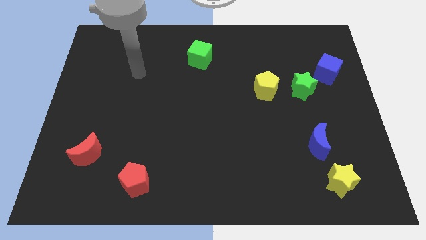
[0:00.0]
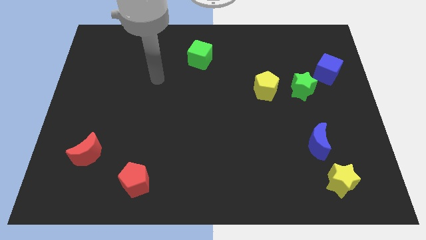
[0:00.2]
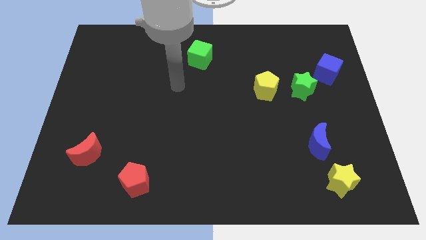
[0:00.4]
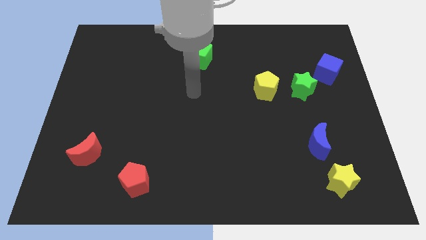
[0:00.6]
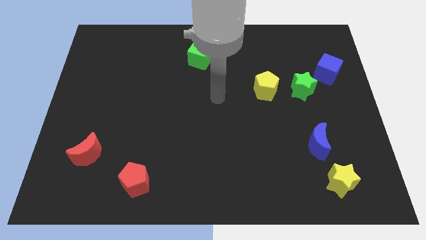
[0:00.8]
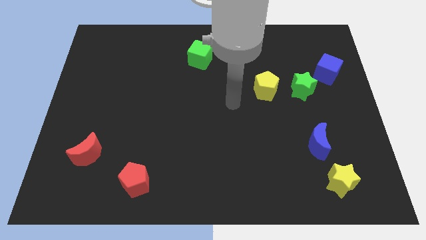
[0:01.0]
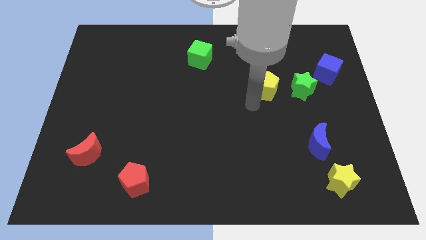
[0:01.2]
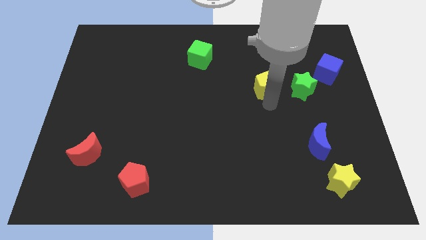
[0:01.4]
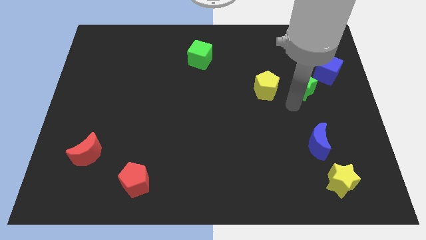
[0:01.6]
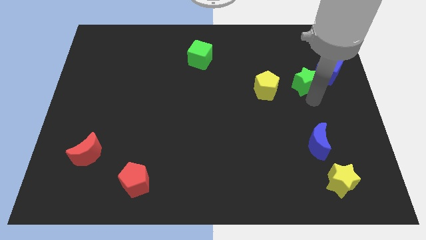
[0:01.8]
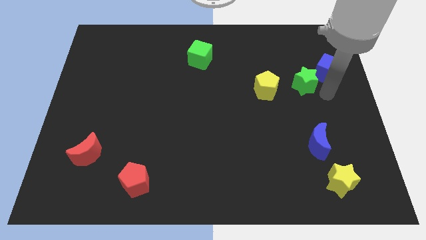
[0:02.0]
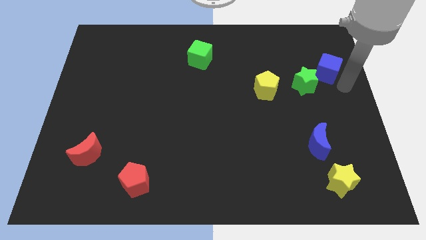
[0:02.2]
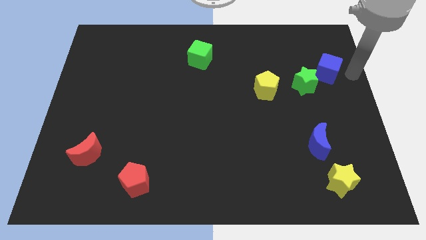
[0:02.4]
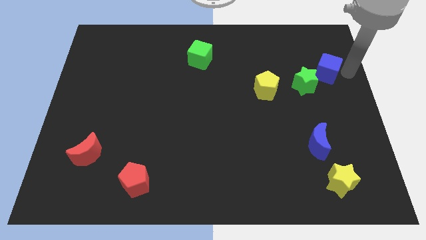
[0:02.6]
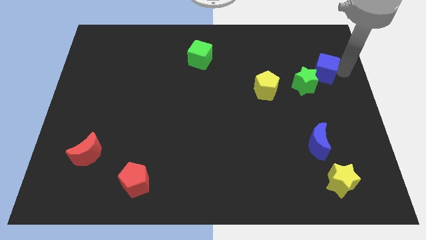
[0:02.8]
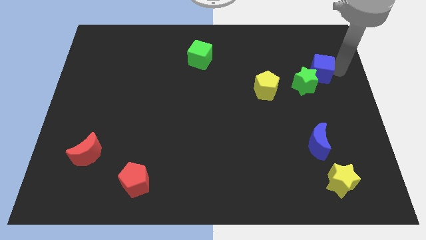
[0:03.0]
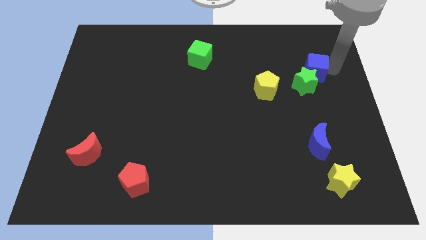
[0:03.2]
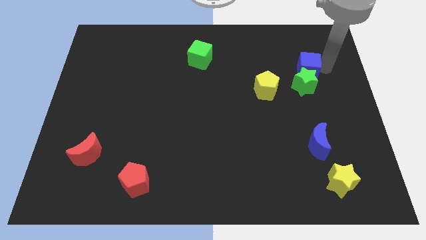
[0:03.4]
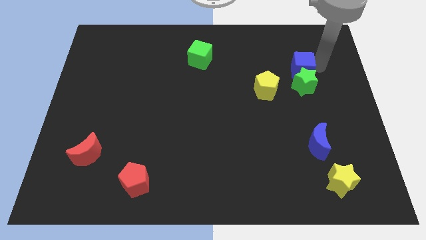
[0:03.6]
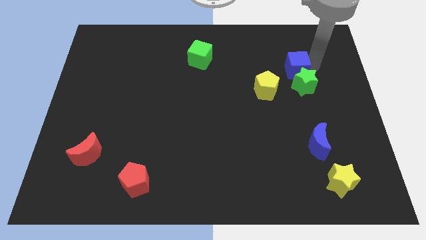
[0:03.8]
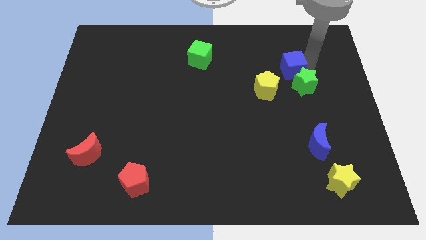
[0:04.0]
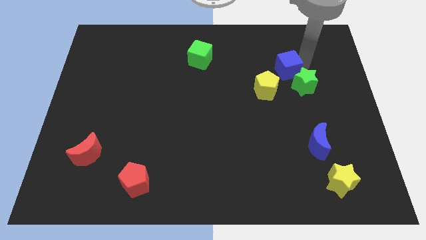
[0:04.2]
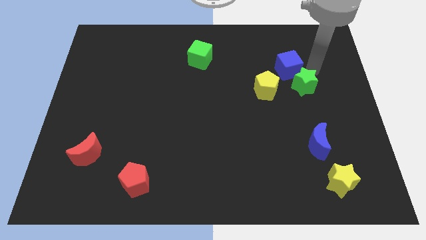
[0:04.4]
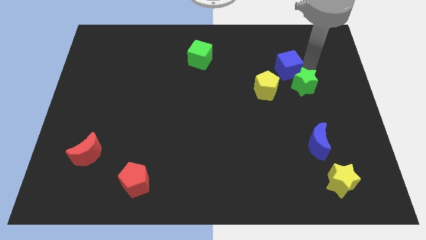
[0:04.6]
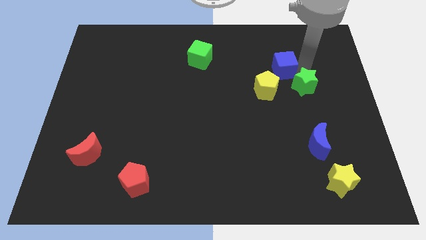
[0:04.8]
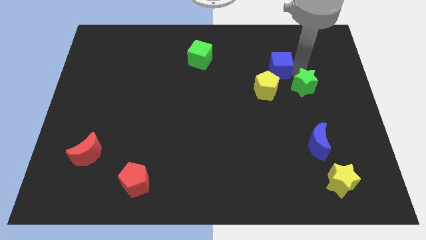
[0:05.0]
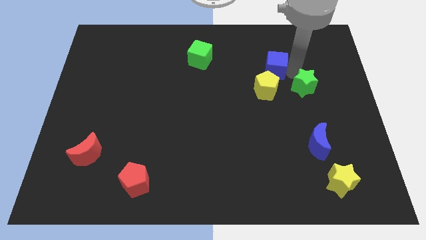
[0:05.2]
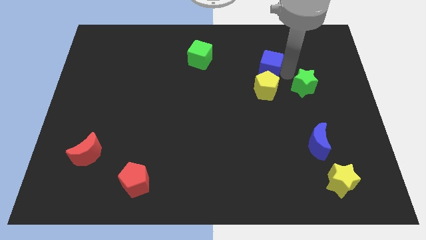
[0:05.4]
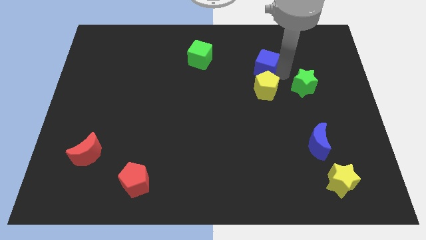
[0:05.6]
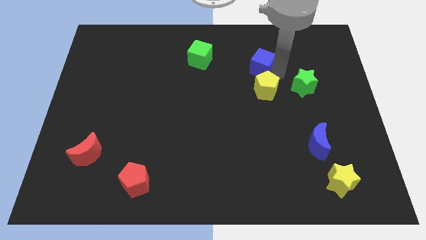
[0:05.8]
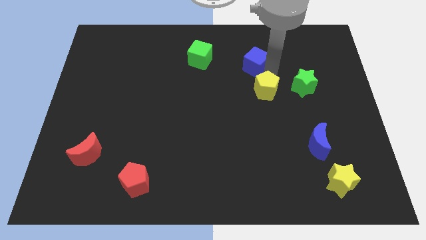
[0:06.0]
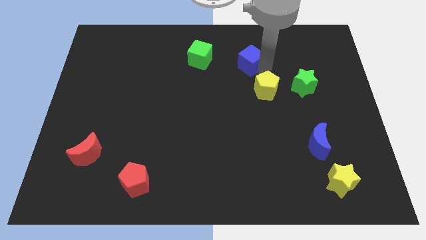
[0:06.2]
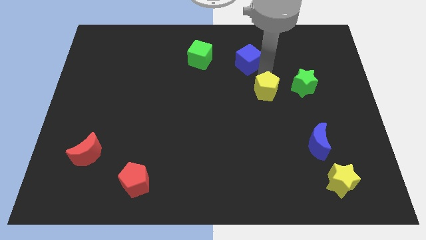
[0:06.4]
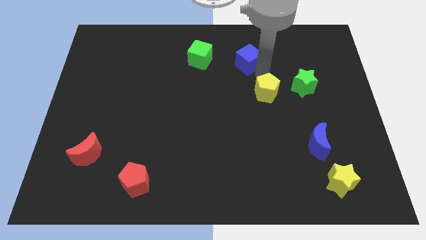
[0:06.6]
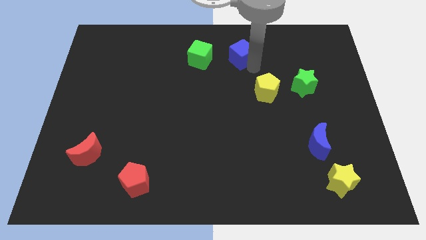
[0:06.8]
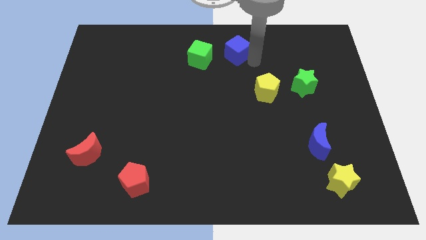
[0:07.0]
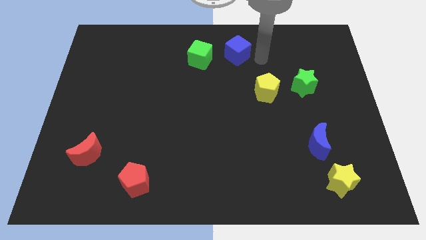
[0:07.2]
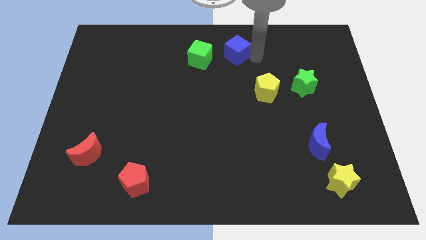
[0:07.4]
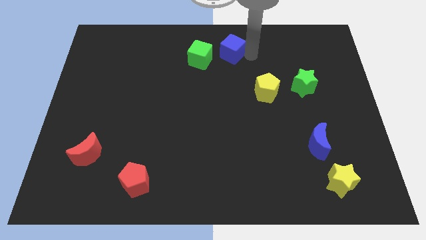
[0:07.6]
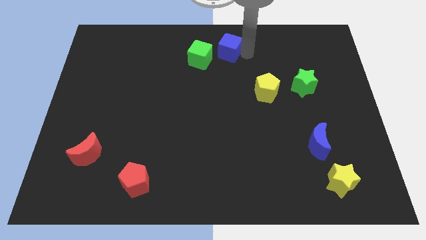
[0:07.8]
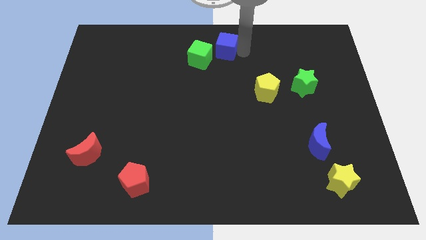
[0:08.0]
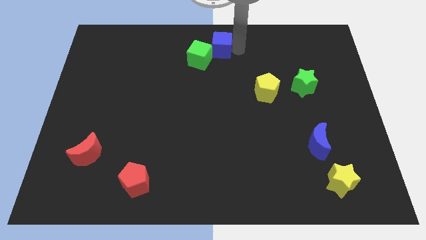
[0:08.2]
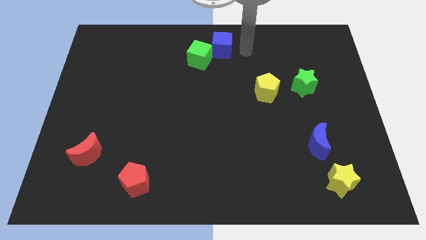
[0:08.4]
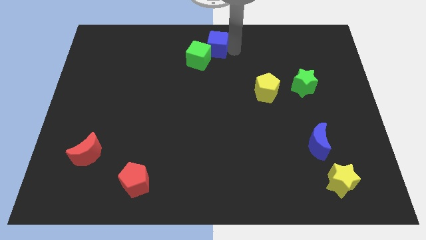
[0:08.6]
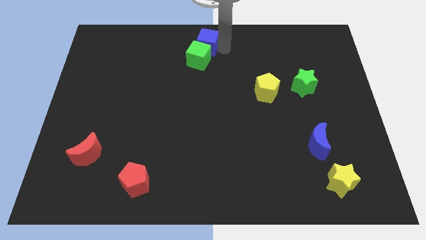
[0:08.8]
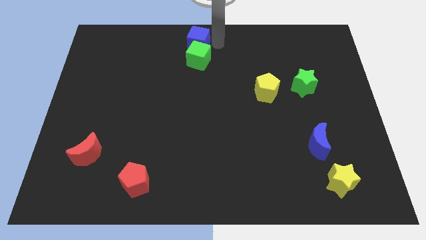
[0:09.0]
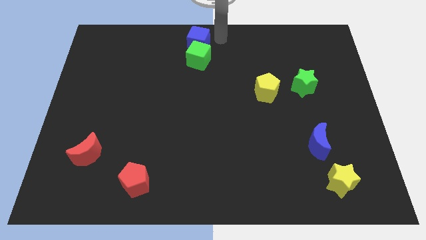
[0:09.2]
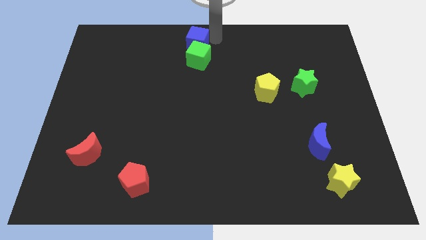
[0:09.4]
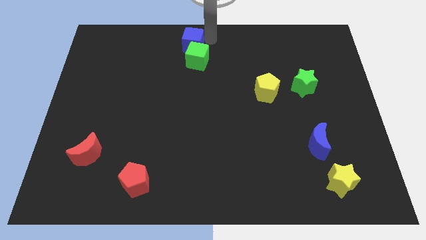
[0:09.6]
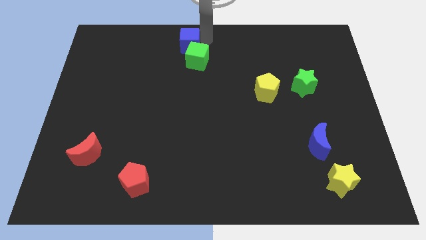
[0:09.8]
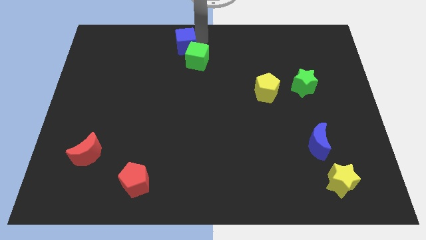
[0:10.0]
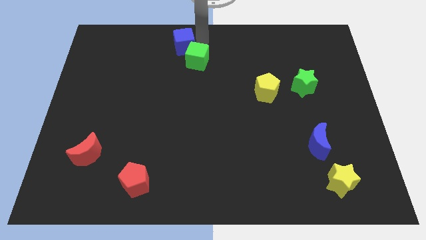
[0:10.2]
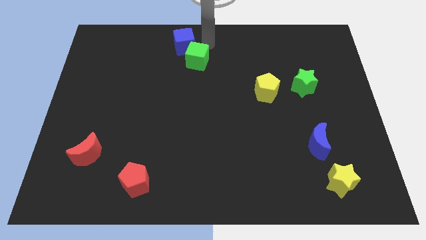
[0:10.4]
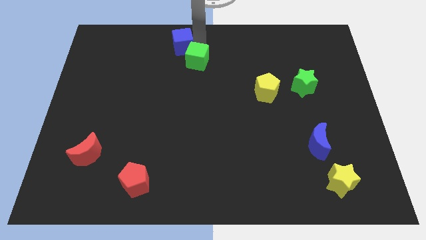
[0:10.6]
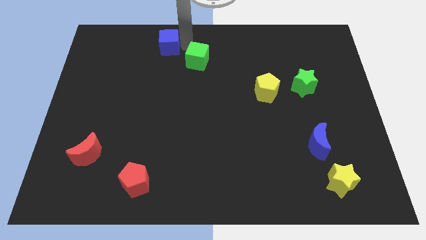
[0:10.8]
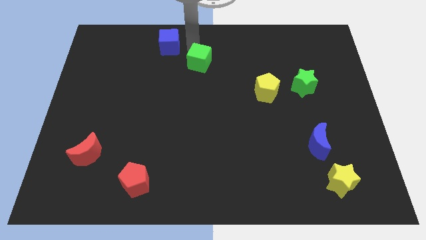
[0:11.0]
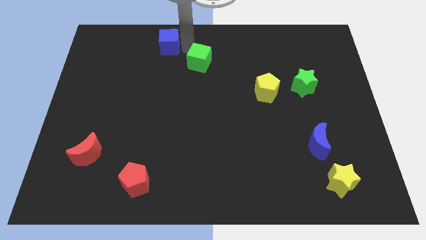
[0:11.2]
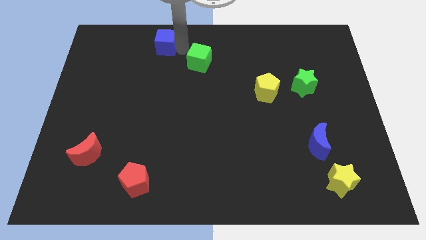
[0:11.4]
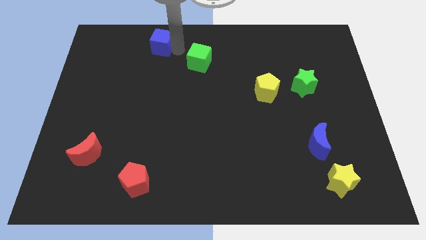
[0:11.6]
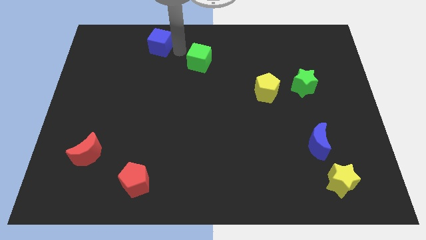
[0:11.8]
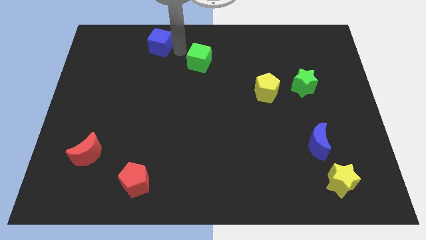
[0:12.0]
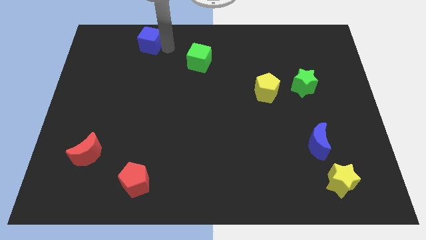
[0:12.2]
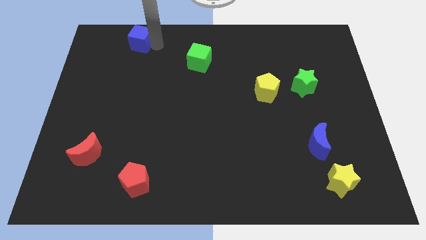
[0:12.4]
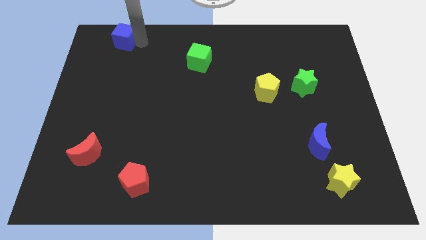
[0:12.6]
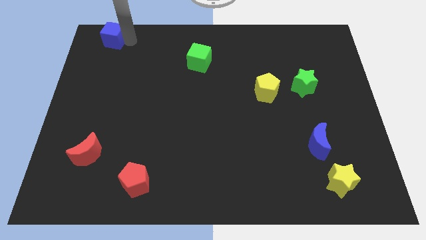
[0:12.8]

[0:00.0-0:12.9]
move the blue cube to the top left

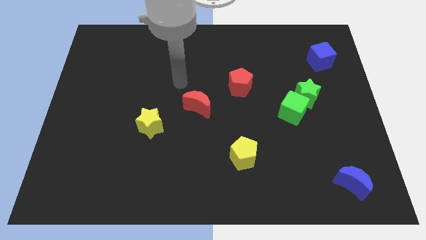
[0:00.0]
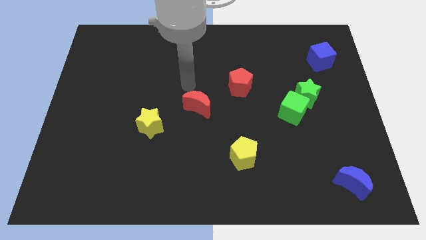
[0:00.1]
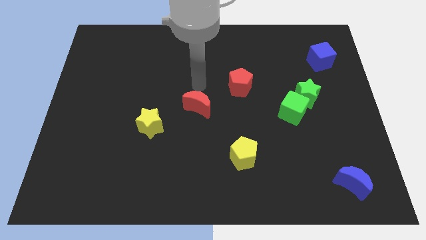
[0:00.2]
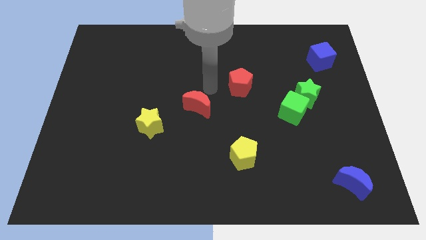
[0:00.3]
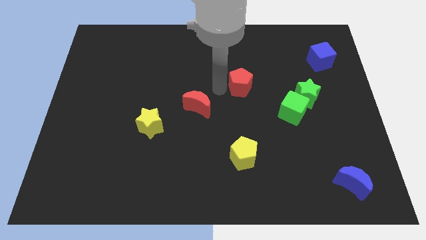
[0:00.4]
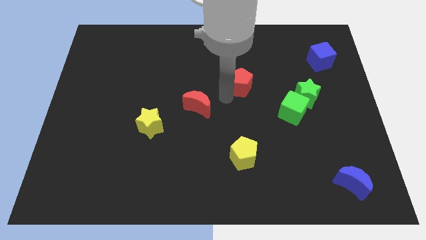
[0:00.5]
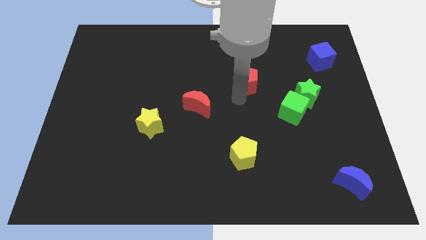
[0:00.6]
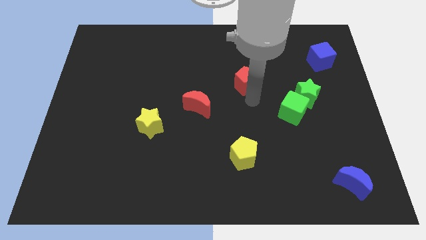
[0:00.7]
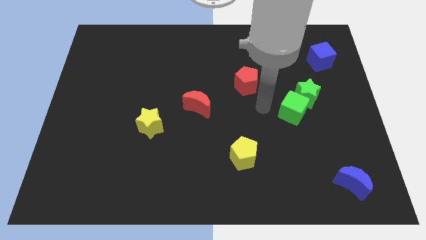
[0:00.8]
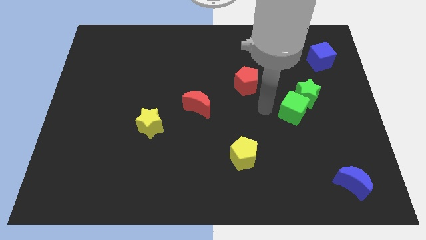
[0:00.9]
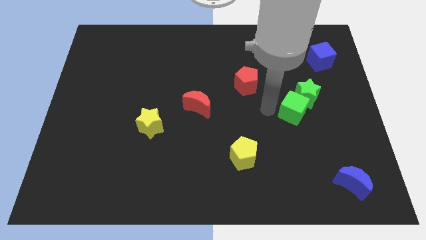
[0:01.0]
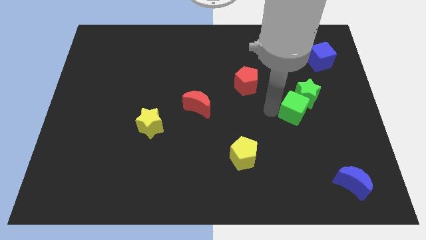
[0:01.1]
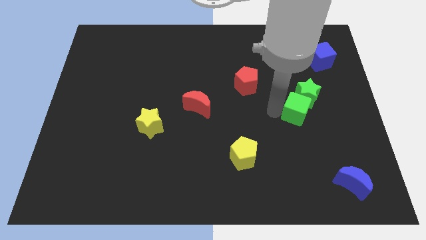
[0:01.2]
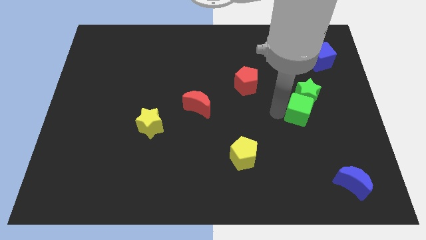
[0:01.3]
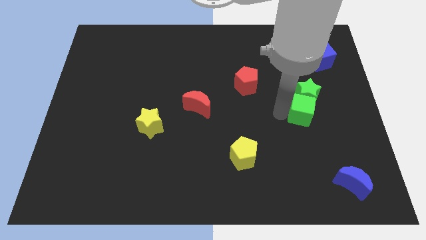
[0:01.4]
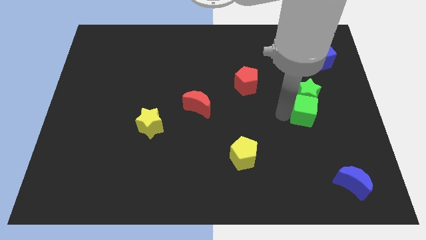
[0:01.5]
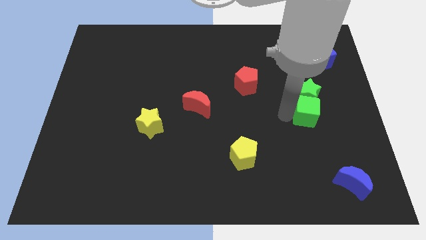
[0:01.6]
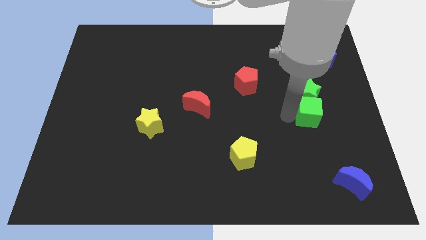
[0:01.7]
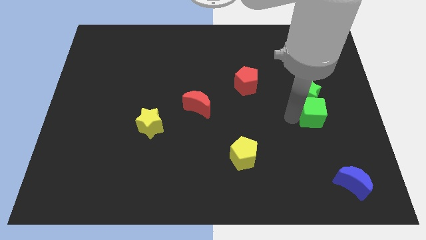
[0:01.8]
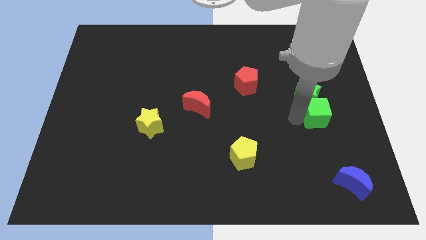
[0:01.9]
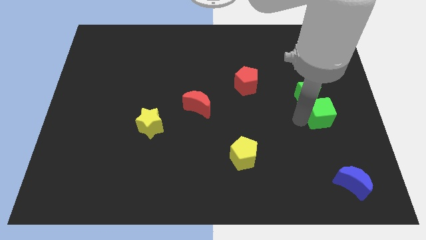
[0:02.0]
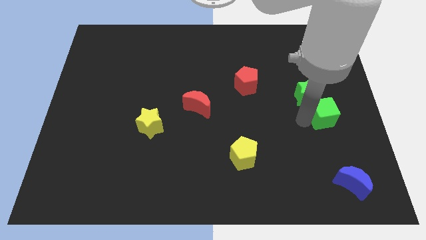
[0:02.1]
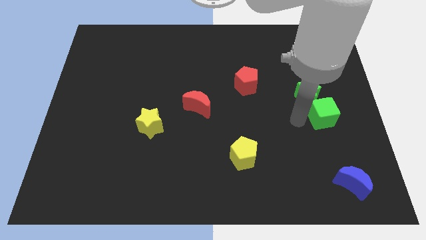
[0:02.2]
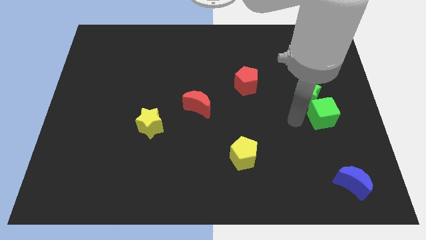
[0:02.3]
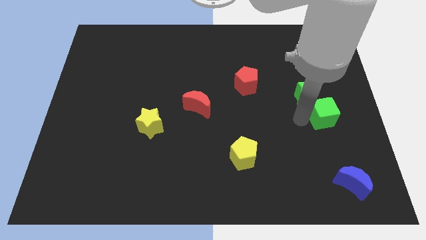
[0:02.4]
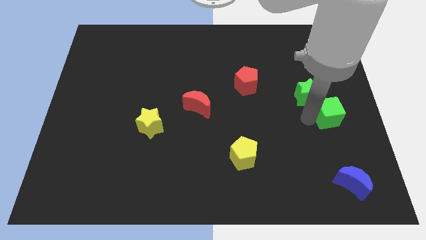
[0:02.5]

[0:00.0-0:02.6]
put the green cube to the right side
